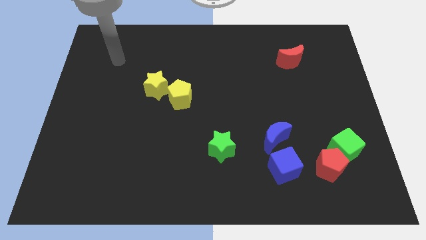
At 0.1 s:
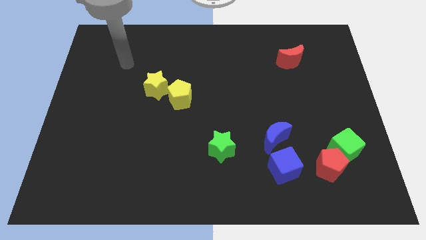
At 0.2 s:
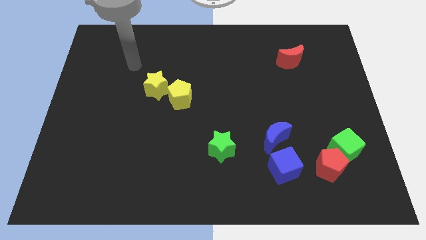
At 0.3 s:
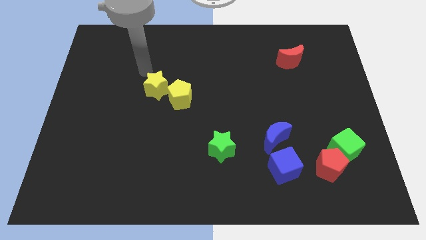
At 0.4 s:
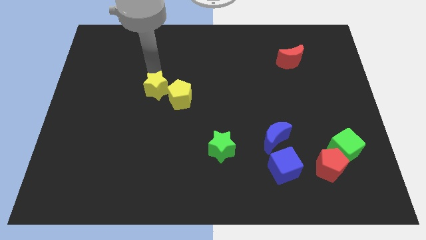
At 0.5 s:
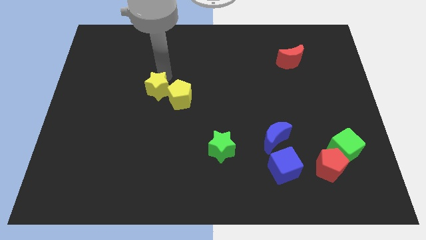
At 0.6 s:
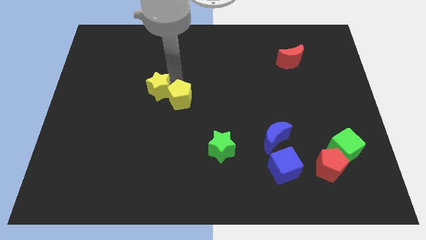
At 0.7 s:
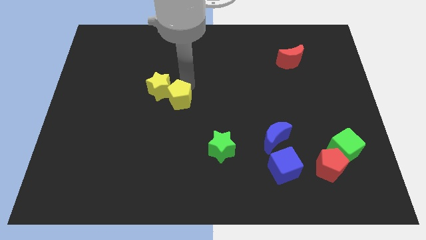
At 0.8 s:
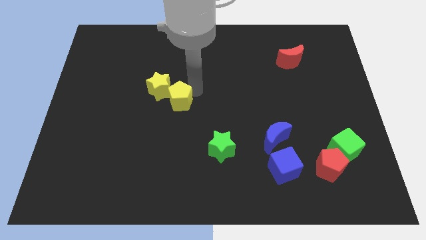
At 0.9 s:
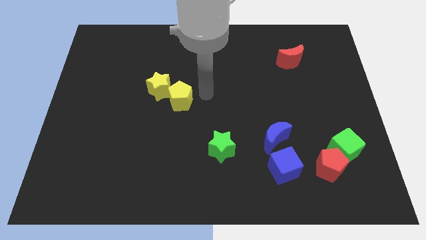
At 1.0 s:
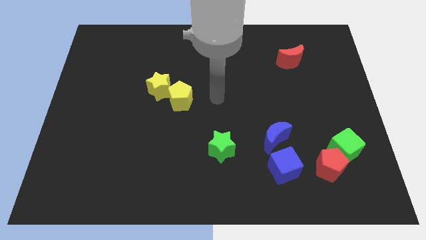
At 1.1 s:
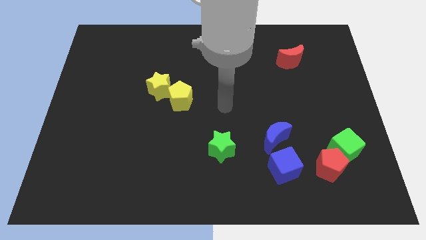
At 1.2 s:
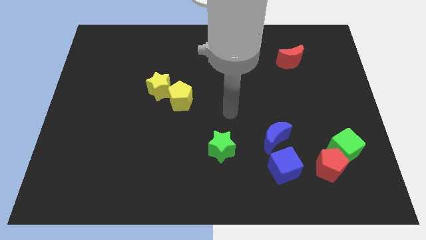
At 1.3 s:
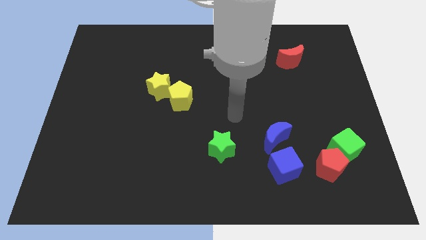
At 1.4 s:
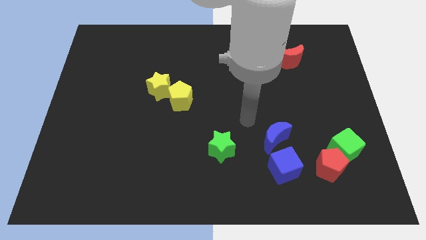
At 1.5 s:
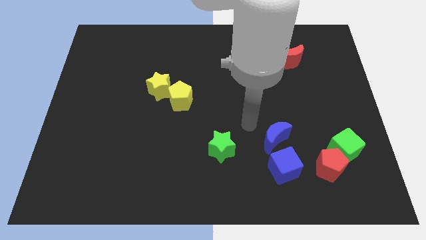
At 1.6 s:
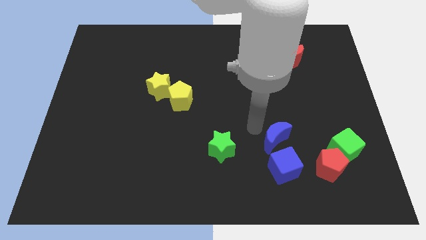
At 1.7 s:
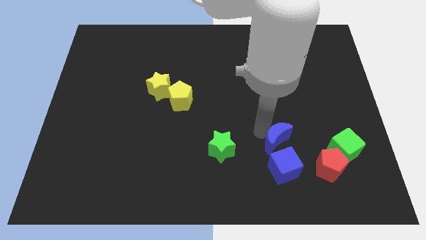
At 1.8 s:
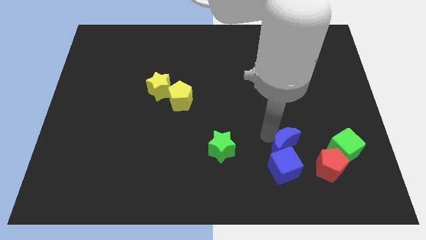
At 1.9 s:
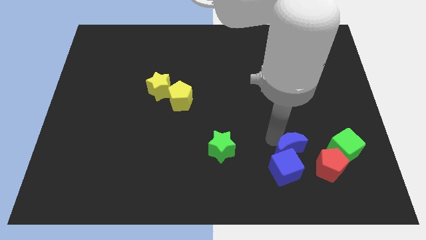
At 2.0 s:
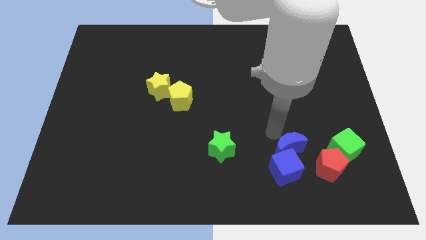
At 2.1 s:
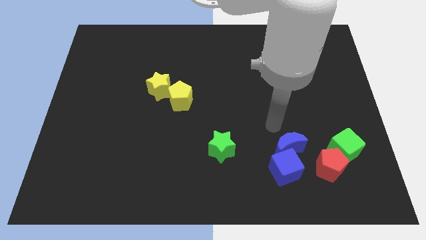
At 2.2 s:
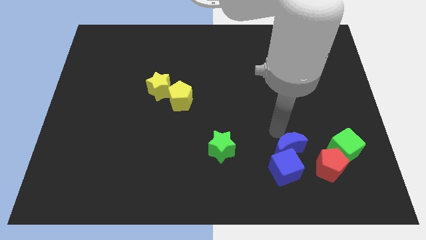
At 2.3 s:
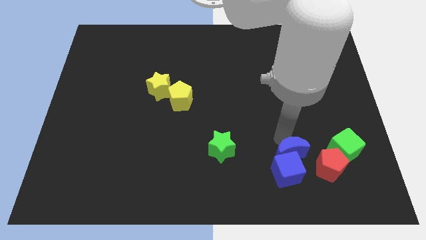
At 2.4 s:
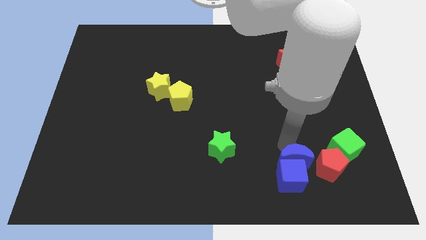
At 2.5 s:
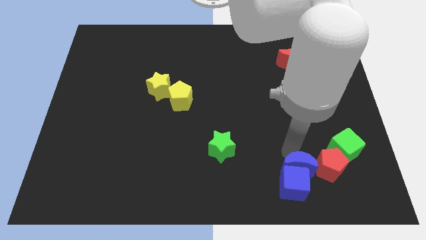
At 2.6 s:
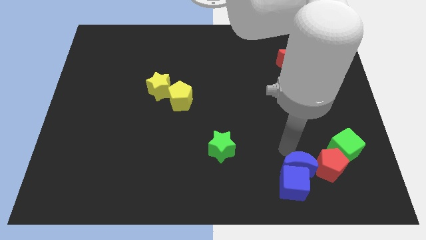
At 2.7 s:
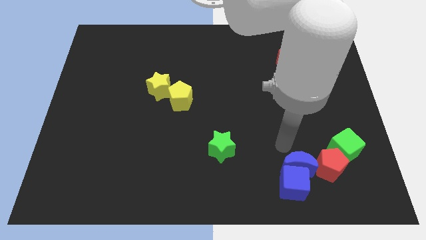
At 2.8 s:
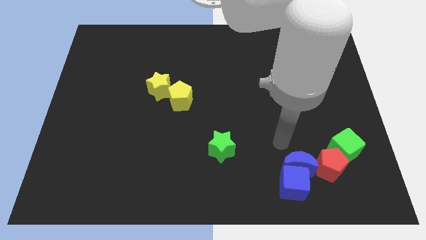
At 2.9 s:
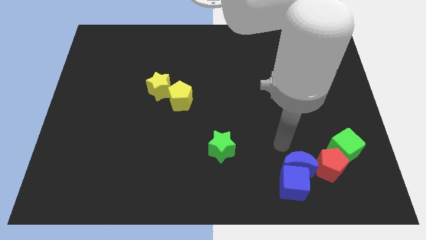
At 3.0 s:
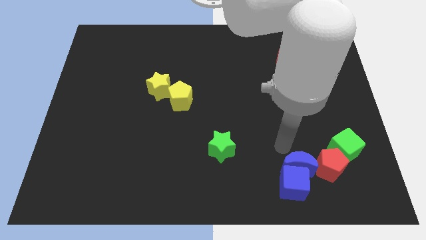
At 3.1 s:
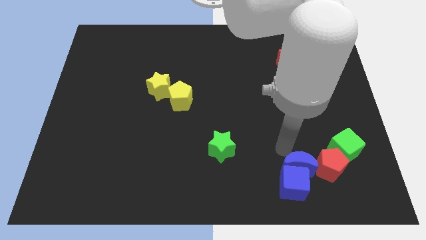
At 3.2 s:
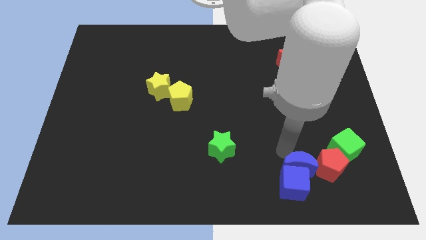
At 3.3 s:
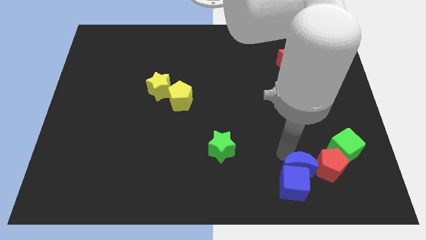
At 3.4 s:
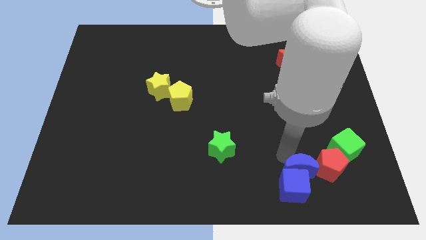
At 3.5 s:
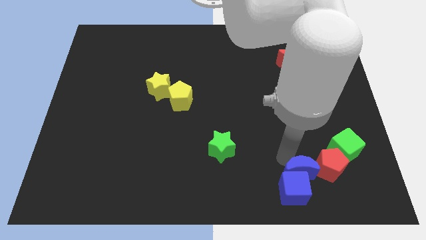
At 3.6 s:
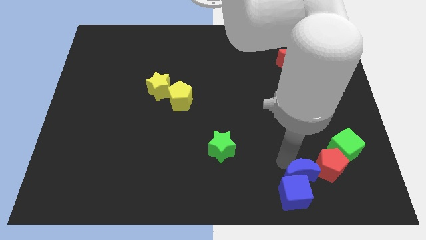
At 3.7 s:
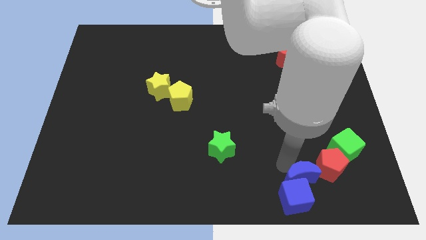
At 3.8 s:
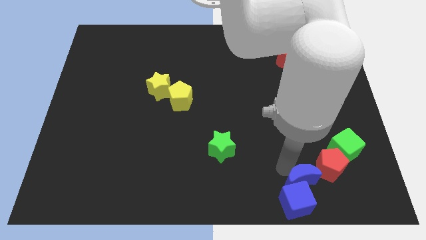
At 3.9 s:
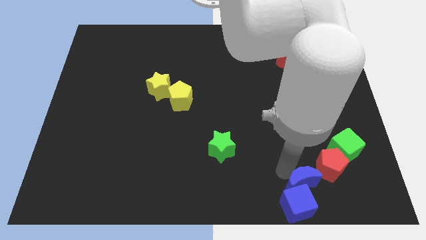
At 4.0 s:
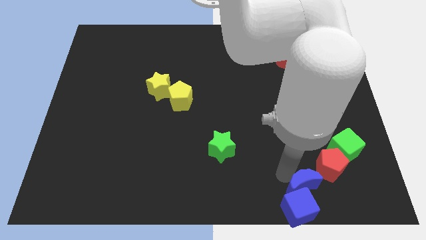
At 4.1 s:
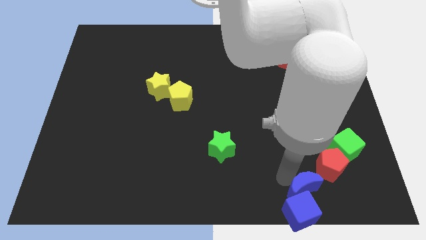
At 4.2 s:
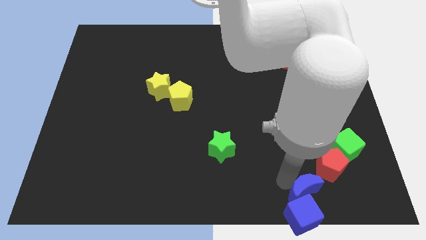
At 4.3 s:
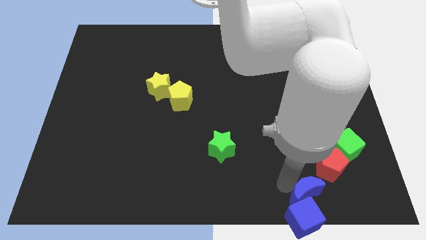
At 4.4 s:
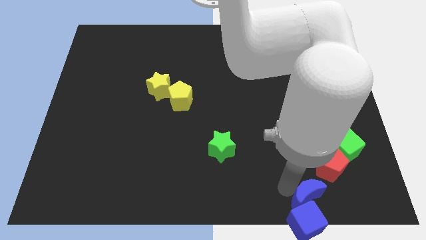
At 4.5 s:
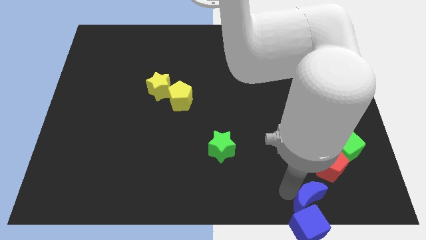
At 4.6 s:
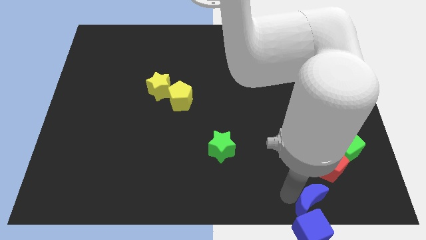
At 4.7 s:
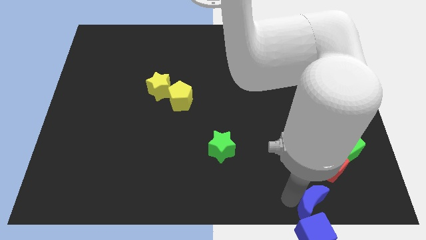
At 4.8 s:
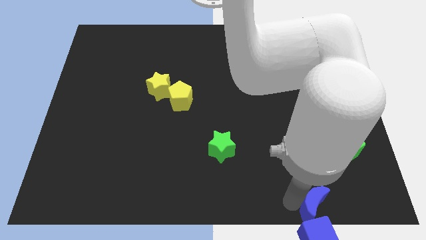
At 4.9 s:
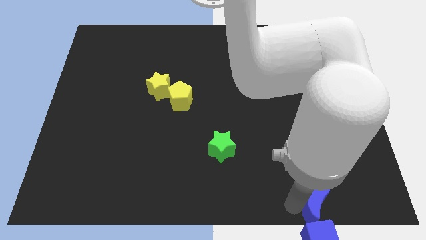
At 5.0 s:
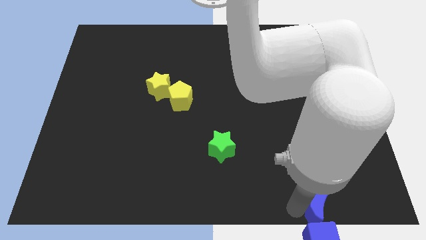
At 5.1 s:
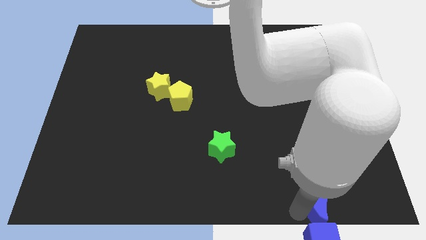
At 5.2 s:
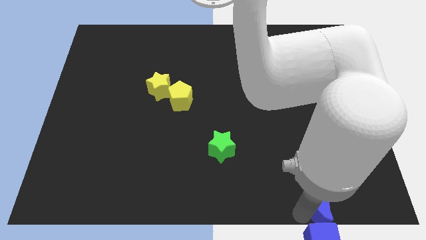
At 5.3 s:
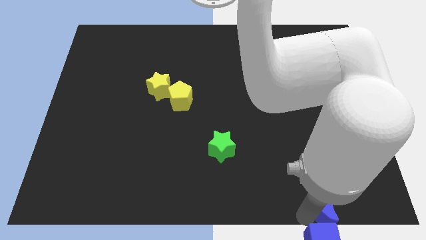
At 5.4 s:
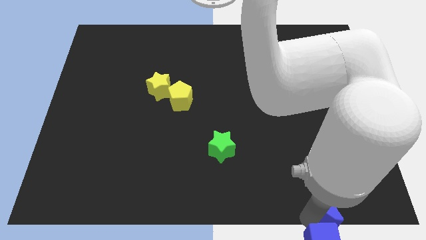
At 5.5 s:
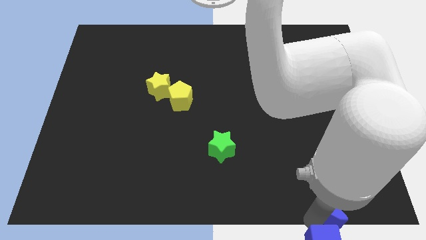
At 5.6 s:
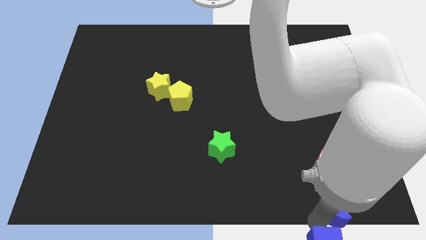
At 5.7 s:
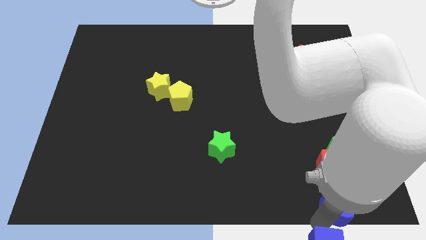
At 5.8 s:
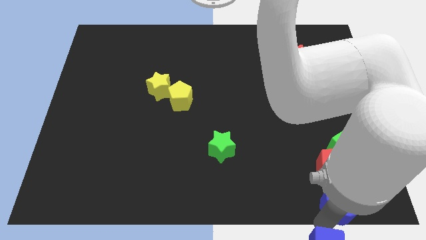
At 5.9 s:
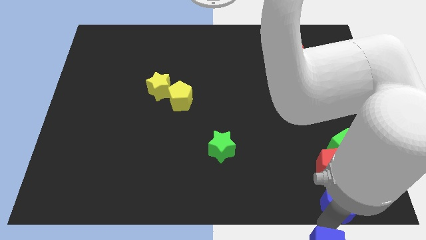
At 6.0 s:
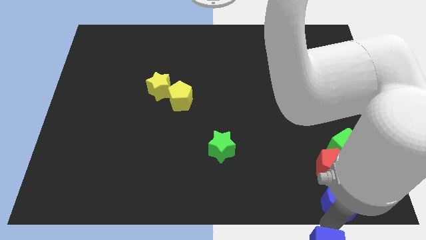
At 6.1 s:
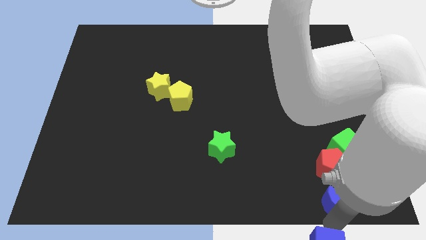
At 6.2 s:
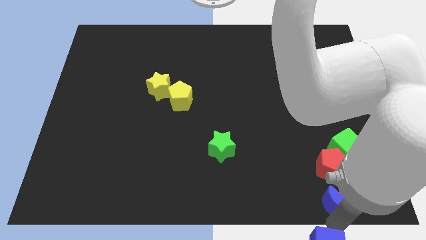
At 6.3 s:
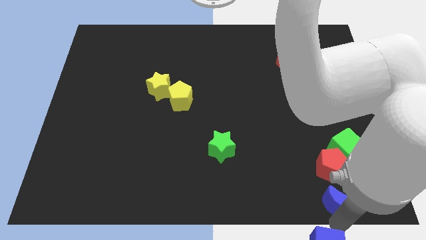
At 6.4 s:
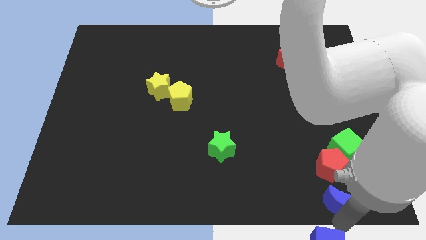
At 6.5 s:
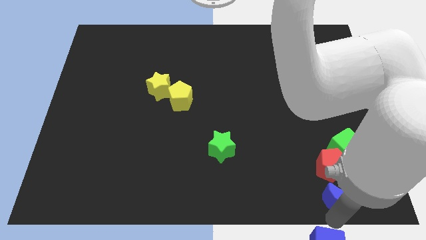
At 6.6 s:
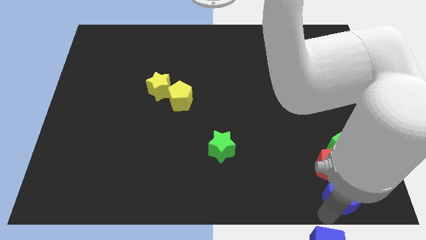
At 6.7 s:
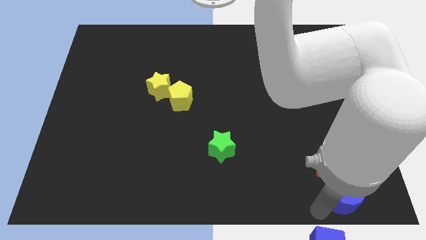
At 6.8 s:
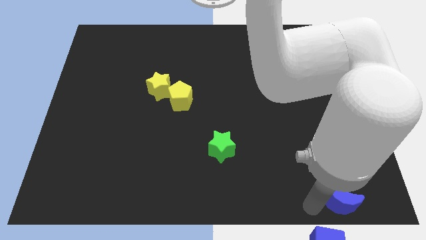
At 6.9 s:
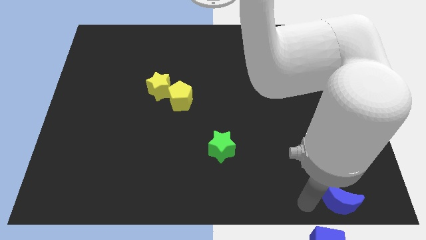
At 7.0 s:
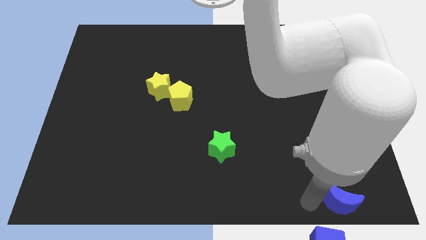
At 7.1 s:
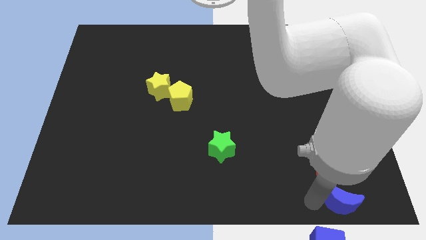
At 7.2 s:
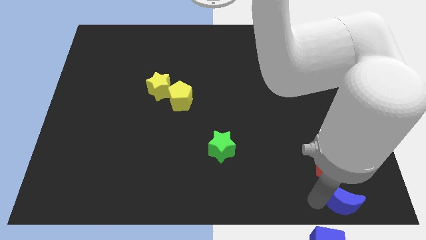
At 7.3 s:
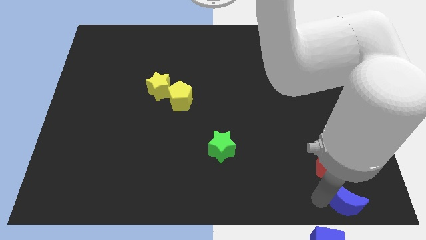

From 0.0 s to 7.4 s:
slide the blue moon to the bottom right of the board
